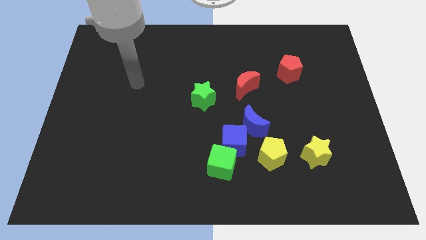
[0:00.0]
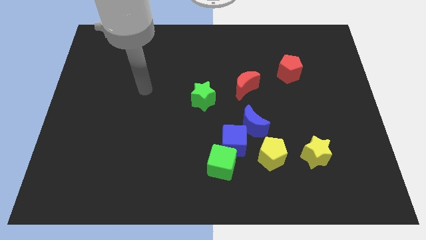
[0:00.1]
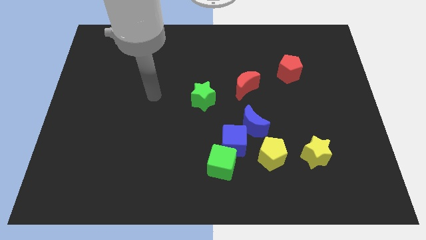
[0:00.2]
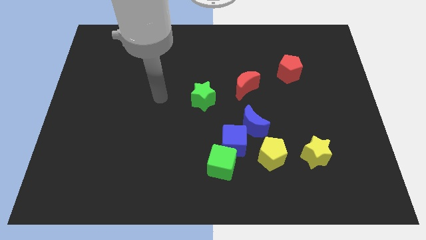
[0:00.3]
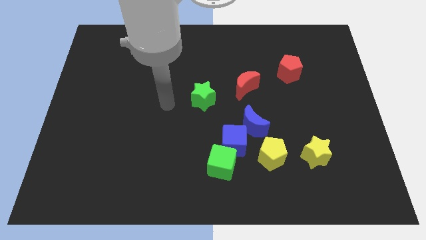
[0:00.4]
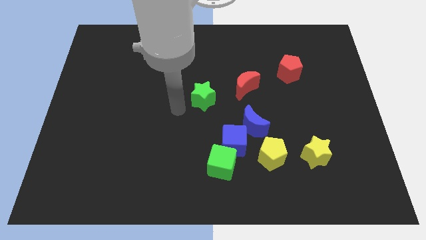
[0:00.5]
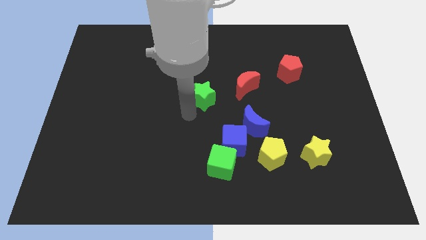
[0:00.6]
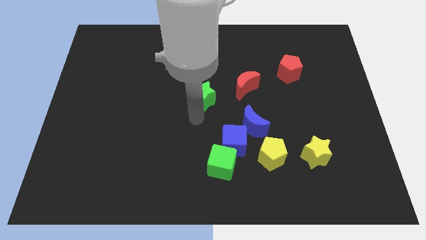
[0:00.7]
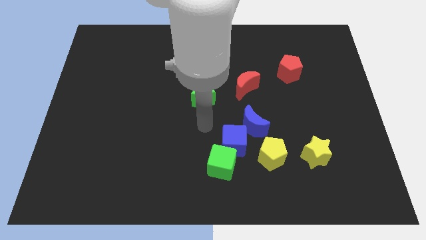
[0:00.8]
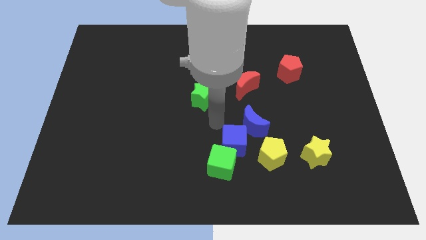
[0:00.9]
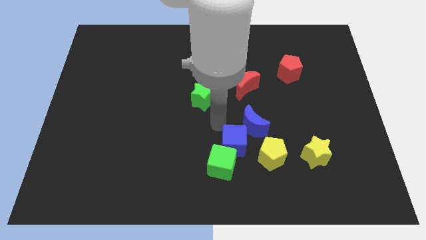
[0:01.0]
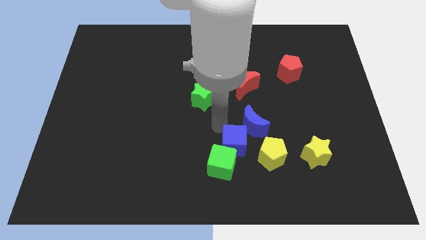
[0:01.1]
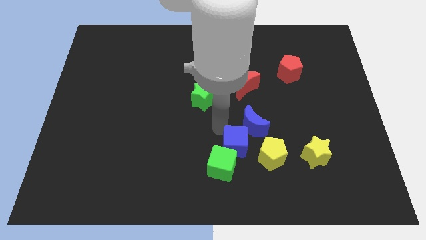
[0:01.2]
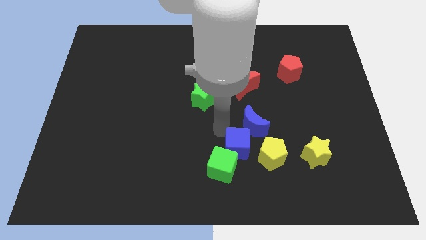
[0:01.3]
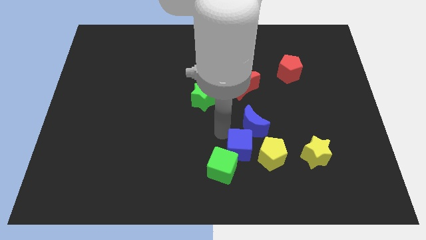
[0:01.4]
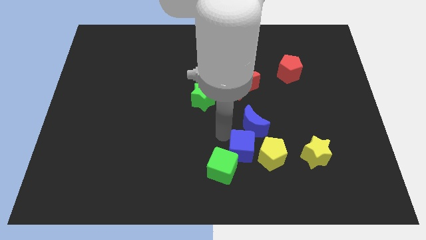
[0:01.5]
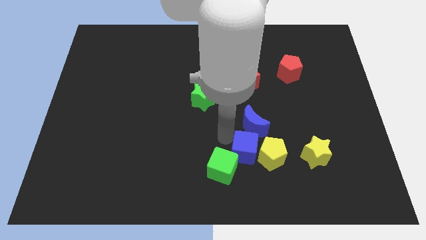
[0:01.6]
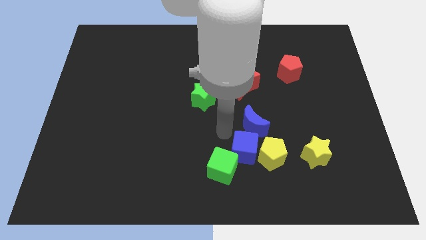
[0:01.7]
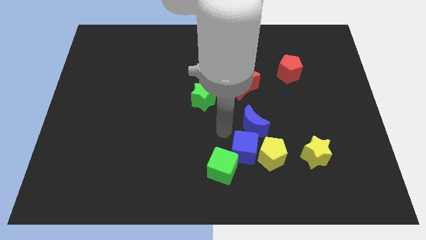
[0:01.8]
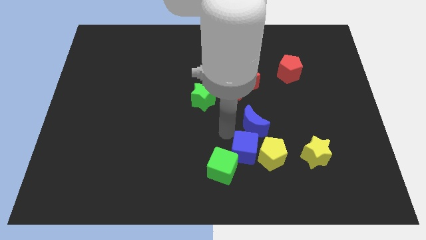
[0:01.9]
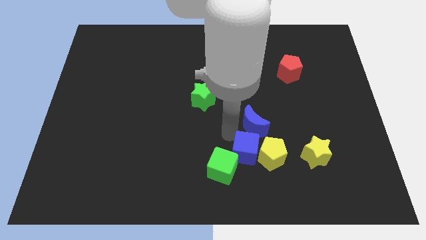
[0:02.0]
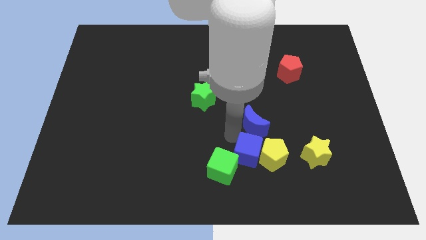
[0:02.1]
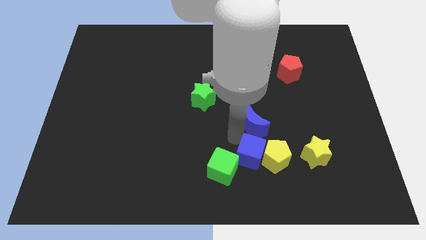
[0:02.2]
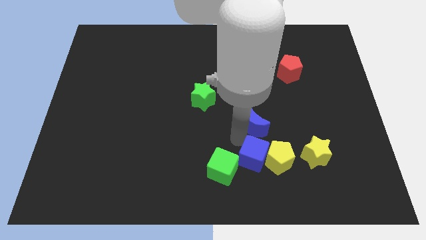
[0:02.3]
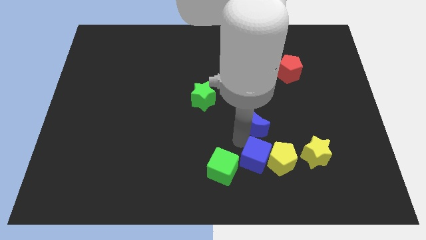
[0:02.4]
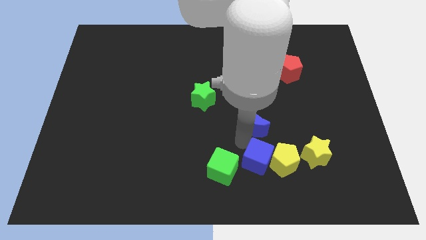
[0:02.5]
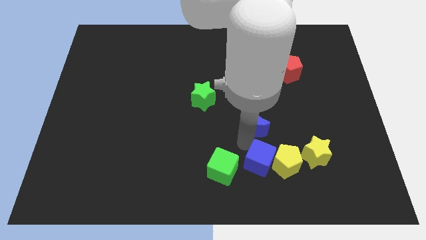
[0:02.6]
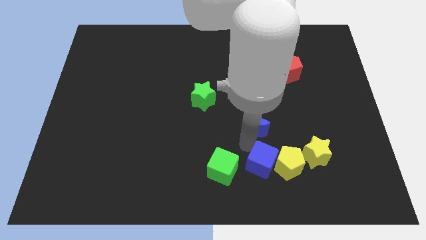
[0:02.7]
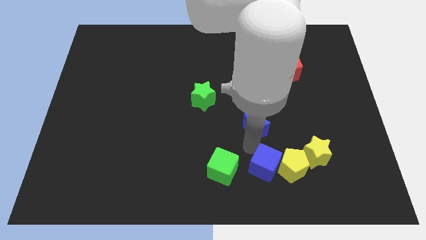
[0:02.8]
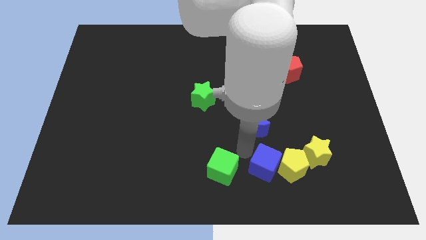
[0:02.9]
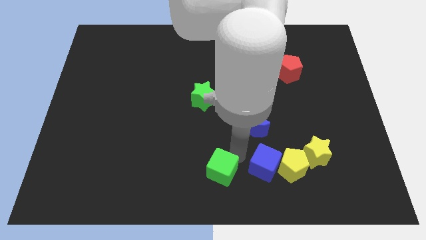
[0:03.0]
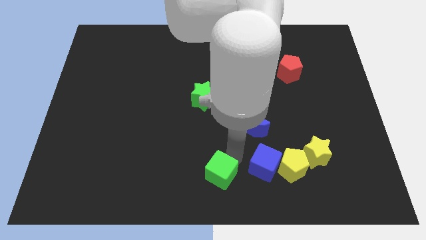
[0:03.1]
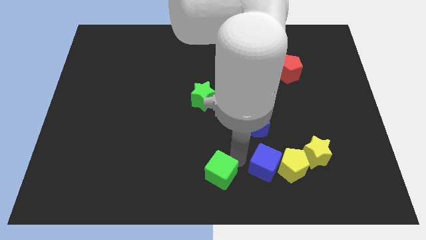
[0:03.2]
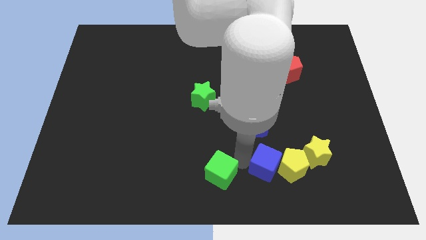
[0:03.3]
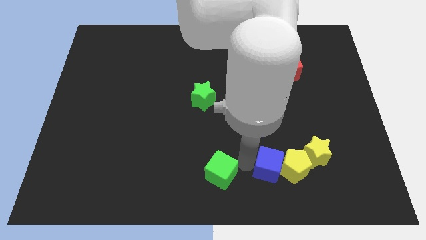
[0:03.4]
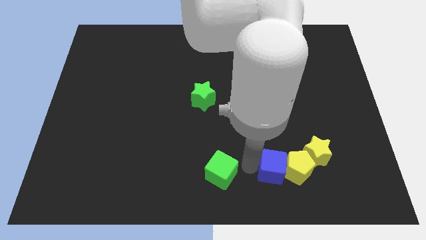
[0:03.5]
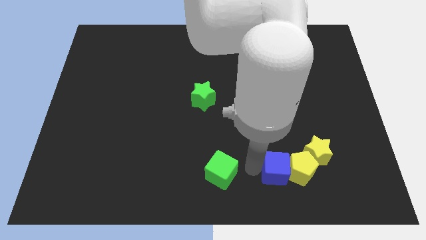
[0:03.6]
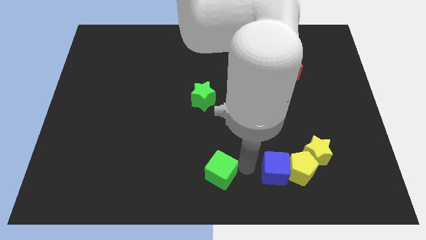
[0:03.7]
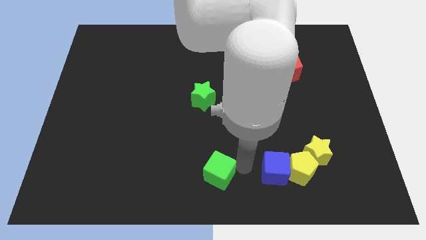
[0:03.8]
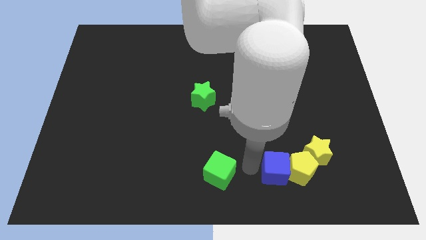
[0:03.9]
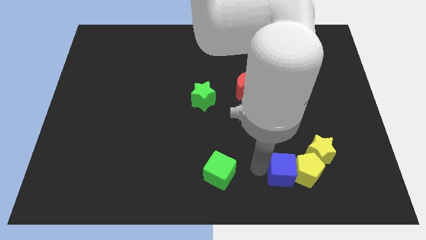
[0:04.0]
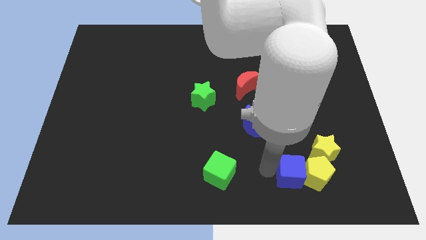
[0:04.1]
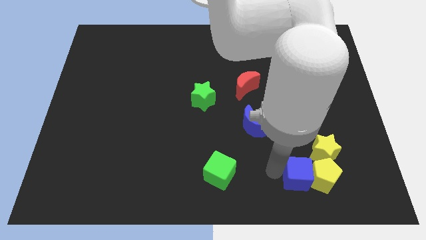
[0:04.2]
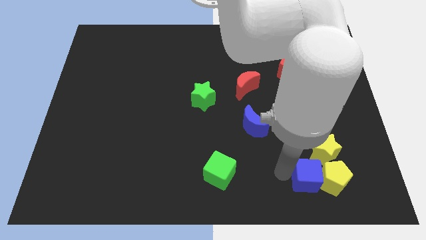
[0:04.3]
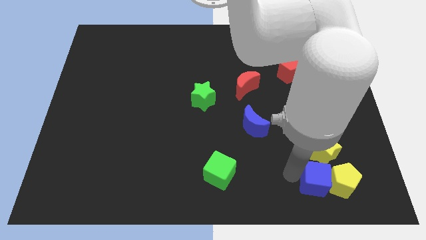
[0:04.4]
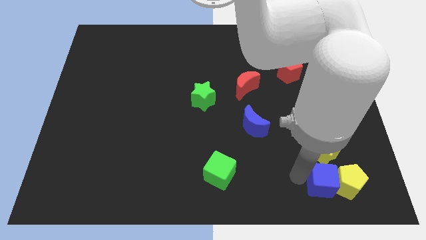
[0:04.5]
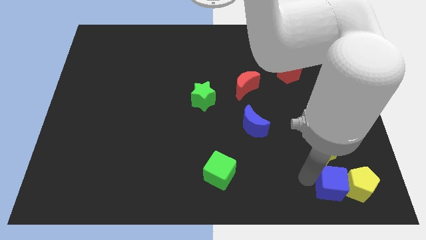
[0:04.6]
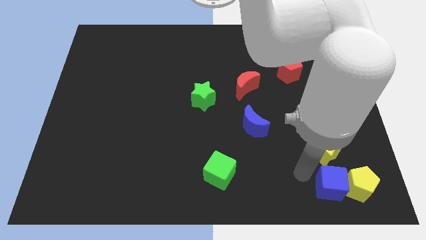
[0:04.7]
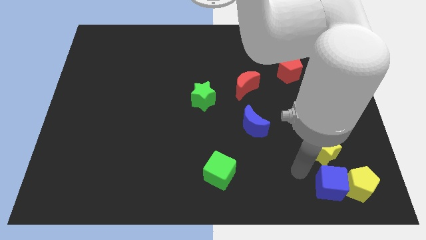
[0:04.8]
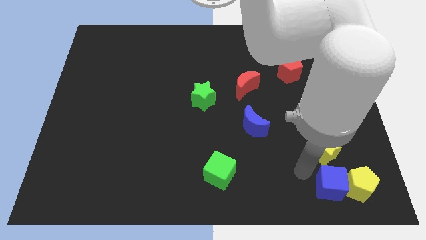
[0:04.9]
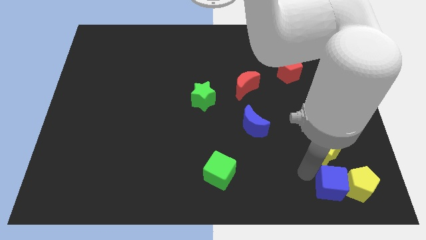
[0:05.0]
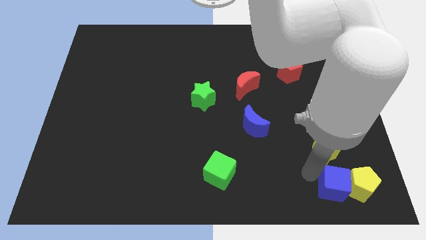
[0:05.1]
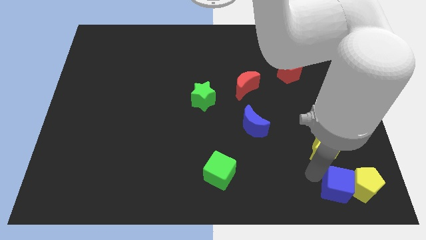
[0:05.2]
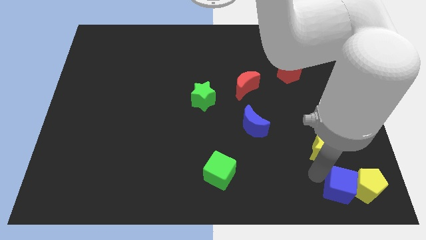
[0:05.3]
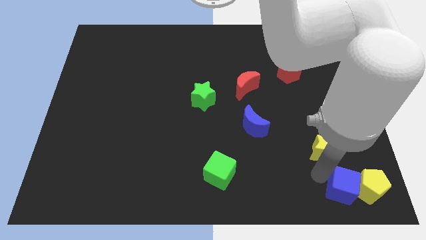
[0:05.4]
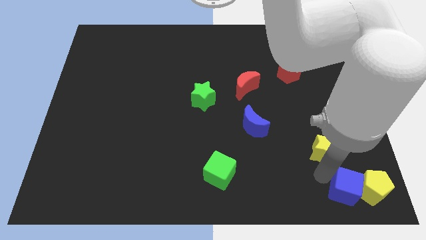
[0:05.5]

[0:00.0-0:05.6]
move the blue cube to the lower right corner
